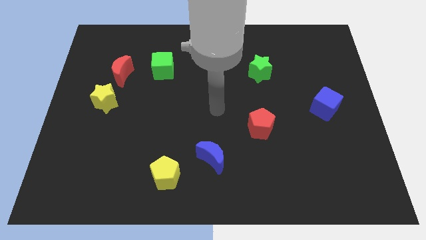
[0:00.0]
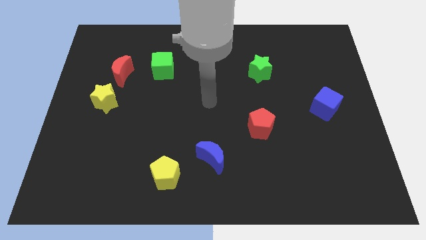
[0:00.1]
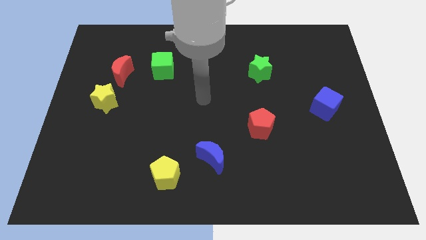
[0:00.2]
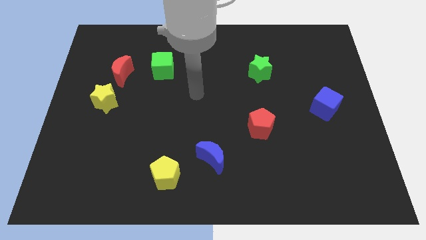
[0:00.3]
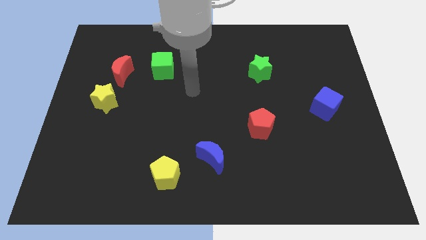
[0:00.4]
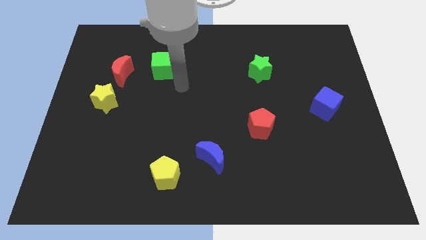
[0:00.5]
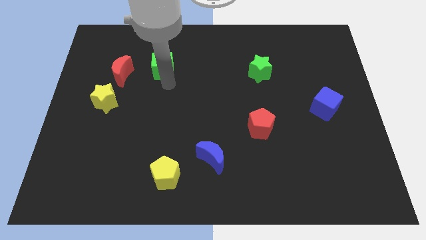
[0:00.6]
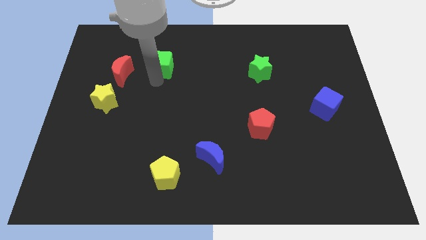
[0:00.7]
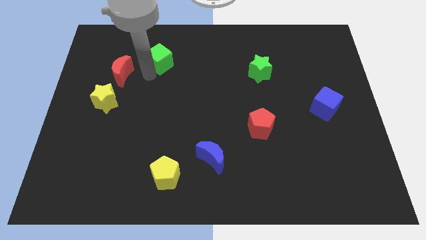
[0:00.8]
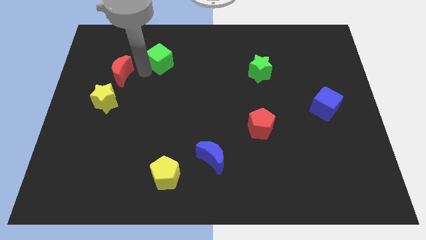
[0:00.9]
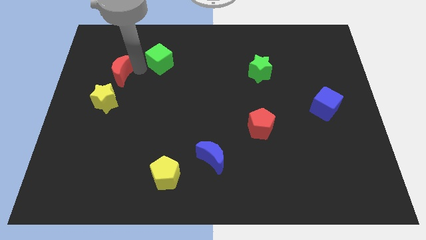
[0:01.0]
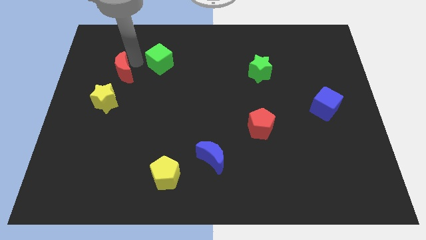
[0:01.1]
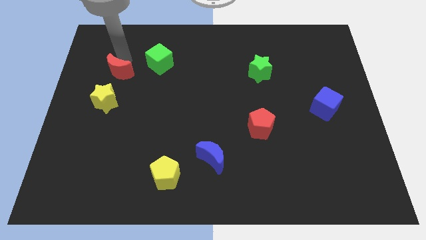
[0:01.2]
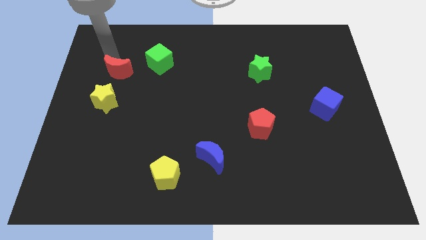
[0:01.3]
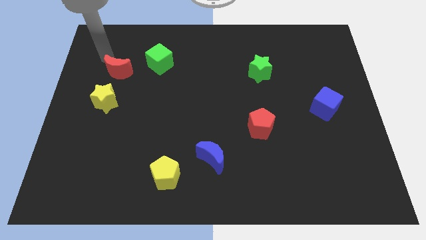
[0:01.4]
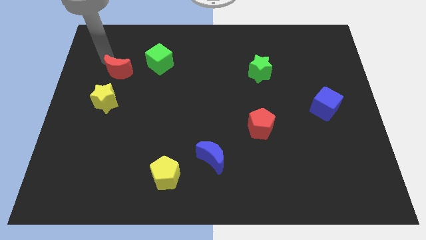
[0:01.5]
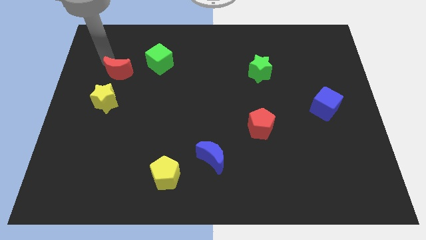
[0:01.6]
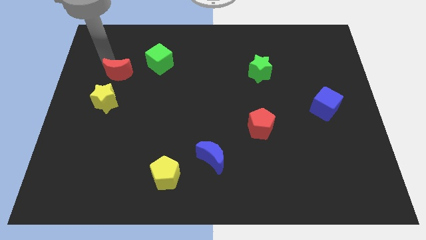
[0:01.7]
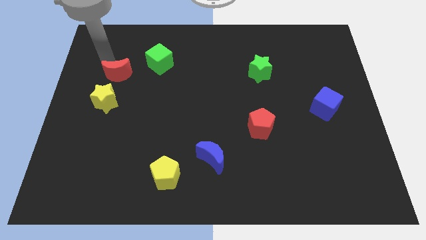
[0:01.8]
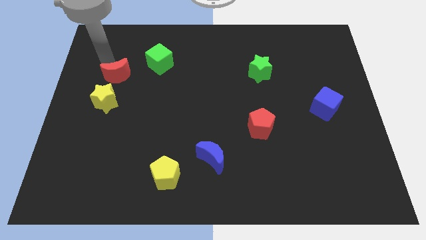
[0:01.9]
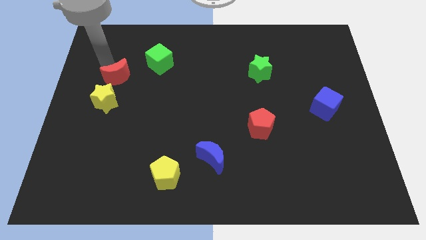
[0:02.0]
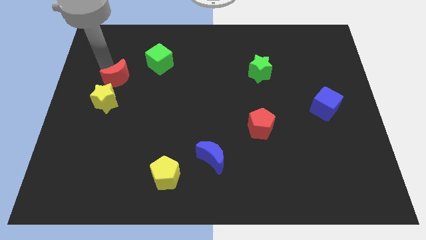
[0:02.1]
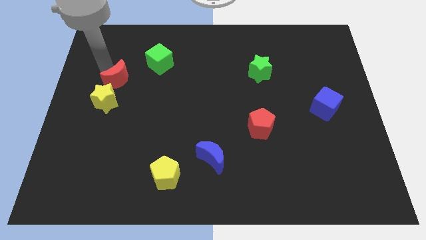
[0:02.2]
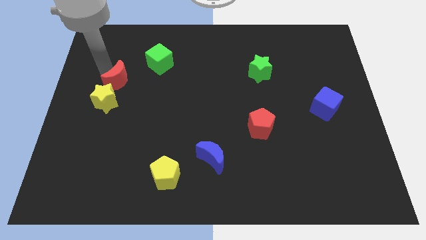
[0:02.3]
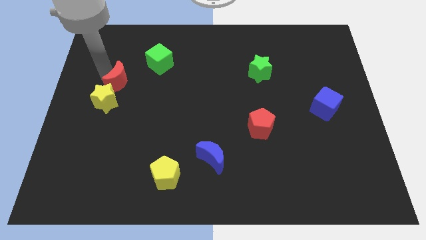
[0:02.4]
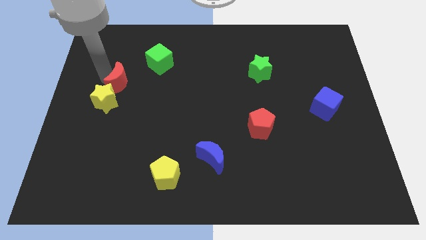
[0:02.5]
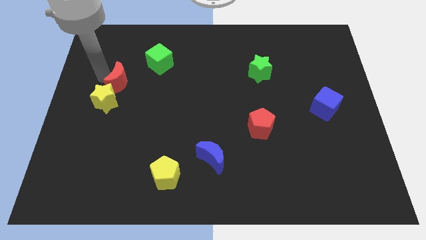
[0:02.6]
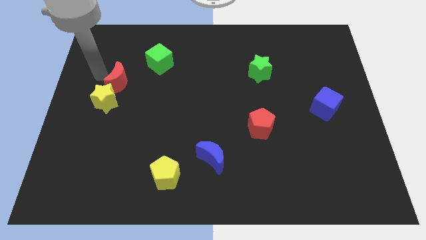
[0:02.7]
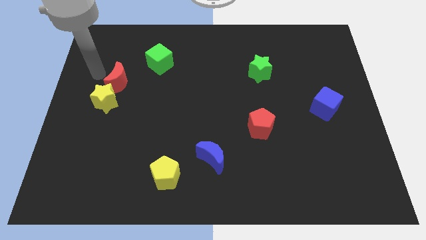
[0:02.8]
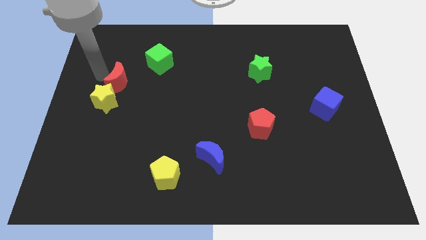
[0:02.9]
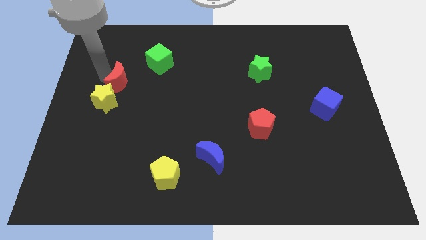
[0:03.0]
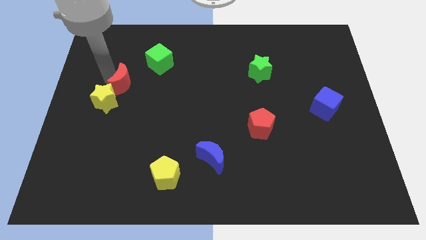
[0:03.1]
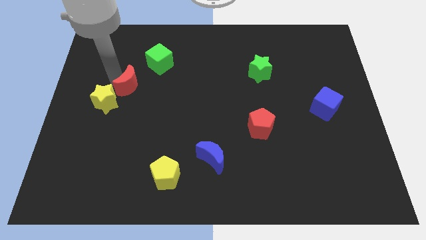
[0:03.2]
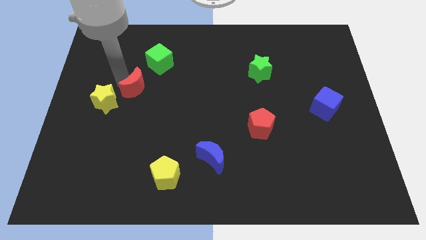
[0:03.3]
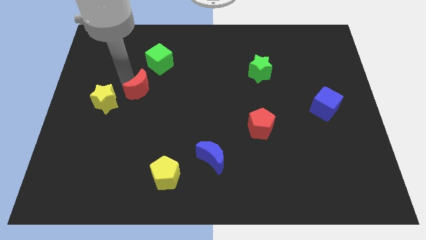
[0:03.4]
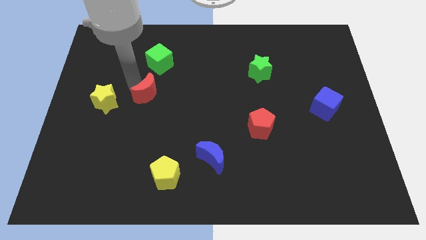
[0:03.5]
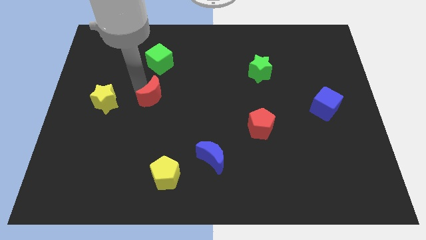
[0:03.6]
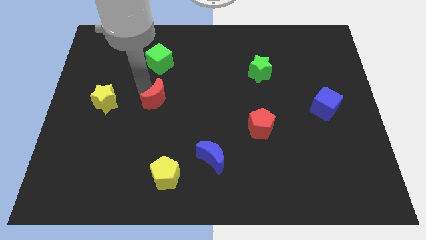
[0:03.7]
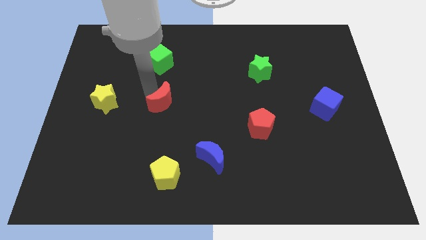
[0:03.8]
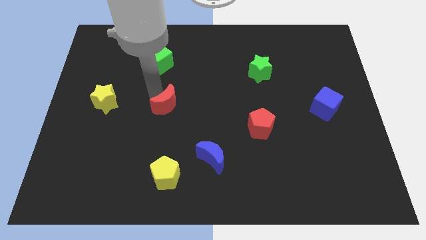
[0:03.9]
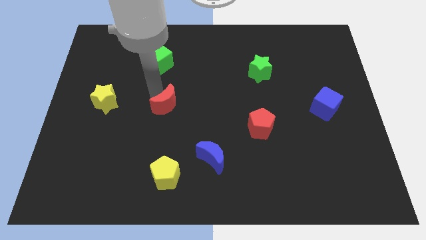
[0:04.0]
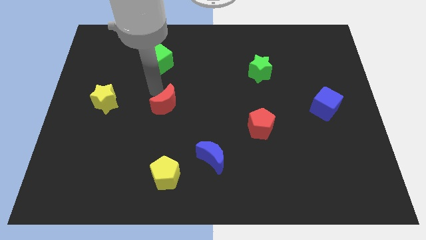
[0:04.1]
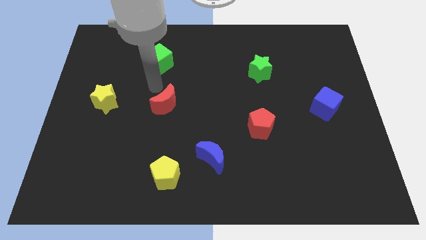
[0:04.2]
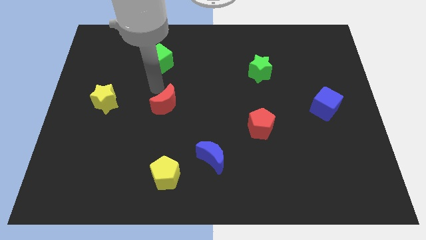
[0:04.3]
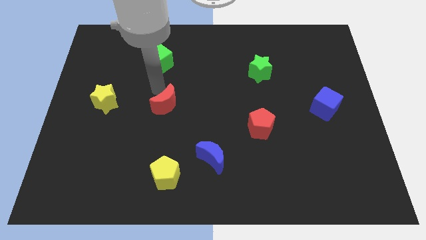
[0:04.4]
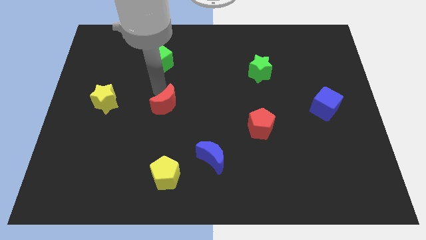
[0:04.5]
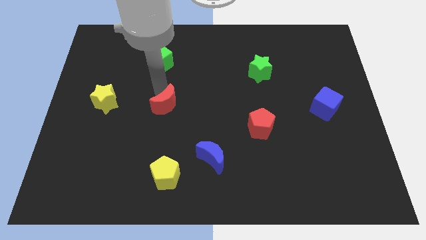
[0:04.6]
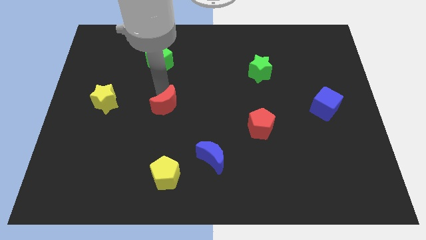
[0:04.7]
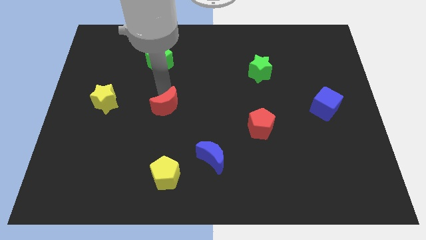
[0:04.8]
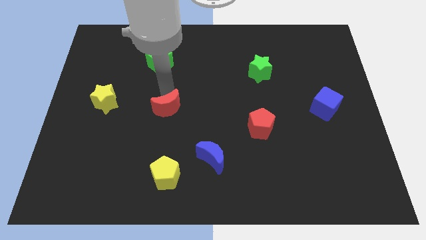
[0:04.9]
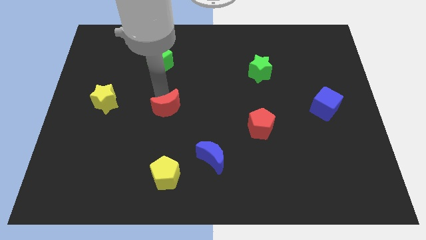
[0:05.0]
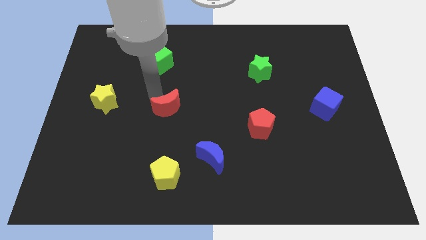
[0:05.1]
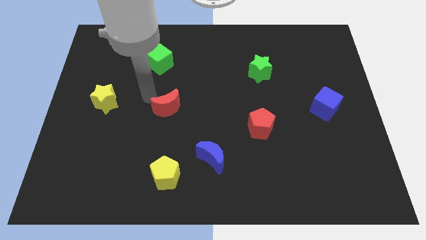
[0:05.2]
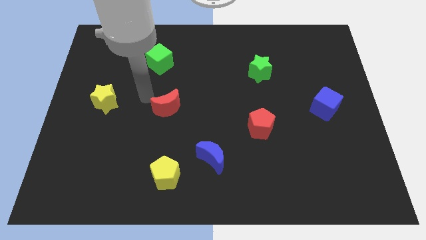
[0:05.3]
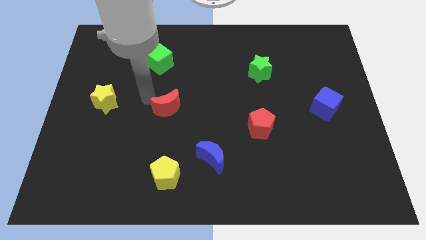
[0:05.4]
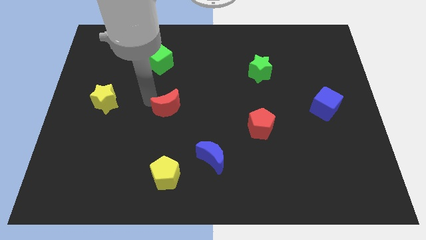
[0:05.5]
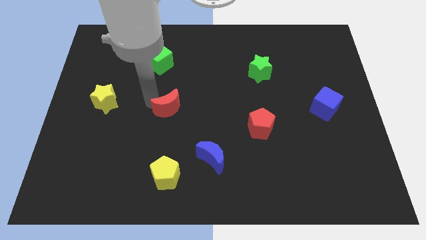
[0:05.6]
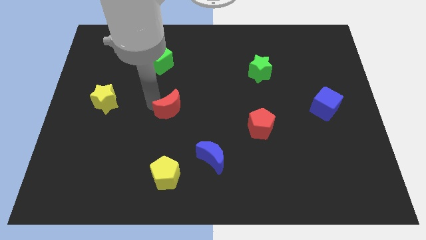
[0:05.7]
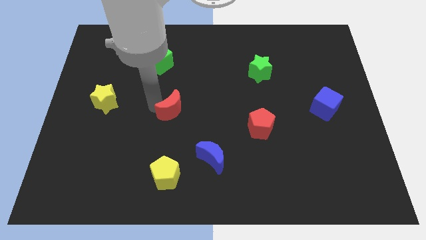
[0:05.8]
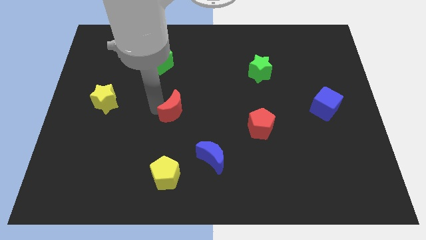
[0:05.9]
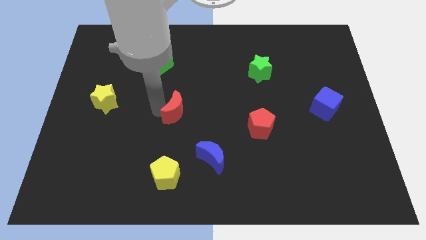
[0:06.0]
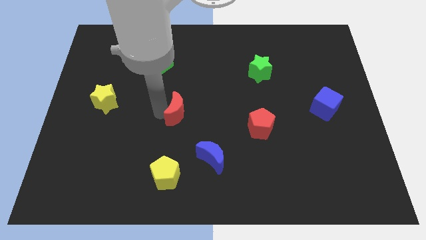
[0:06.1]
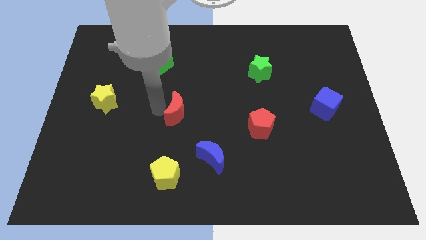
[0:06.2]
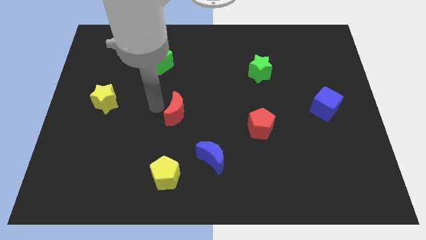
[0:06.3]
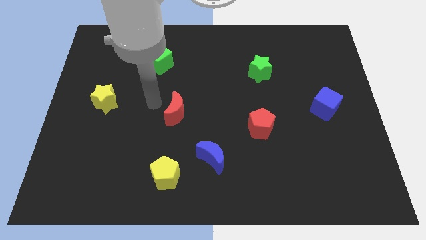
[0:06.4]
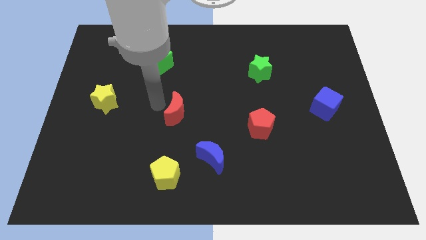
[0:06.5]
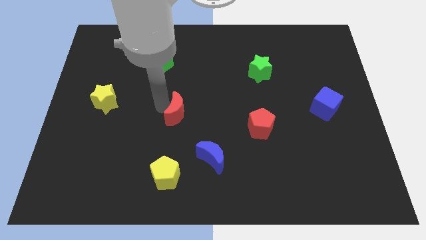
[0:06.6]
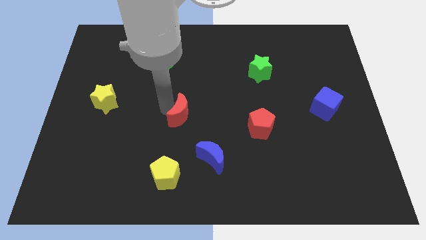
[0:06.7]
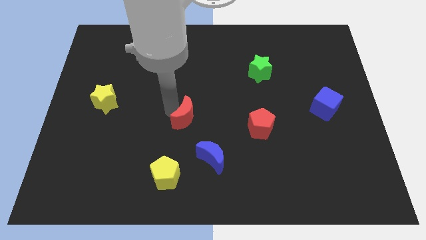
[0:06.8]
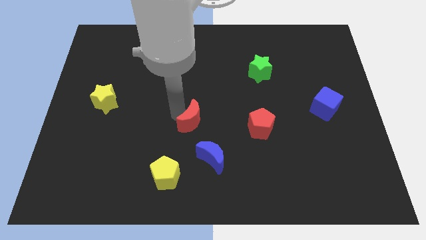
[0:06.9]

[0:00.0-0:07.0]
push the red moon just left of the red pentagon
